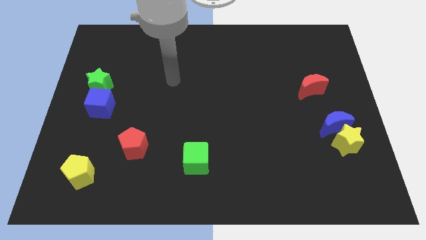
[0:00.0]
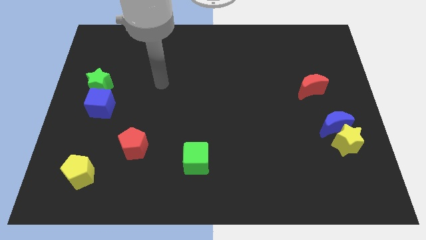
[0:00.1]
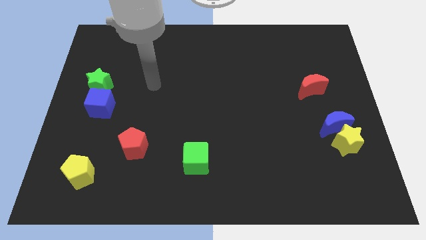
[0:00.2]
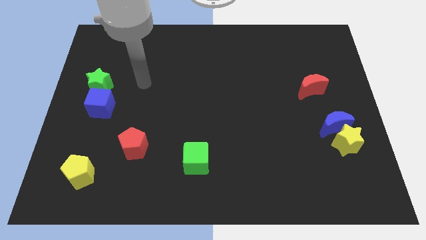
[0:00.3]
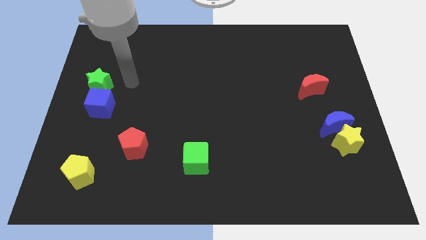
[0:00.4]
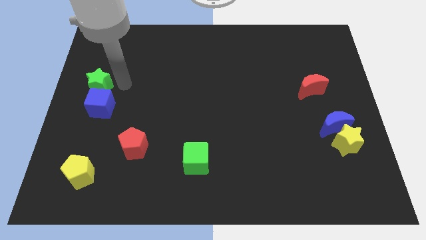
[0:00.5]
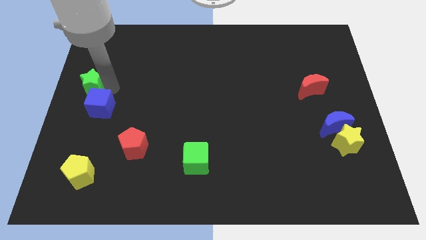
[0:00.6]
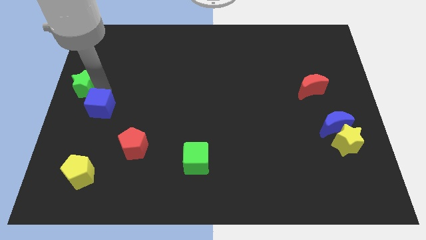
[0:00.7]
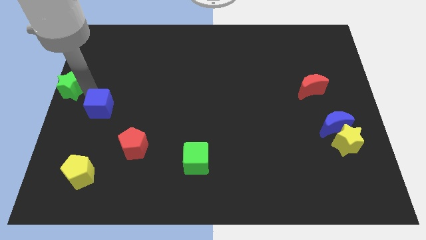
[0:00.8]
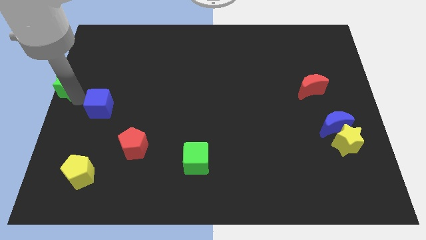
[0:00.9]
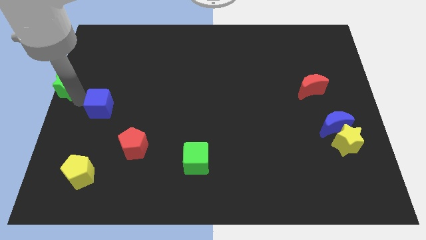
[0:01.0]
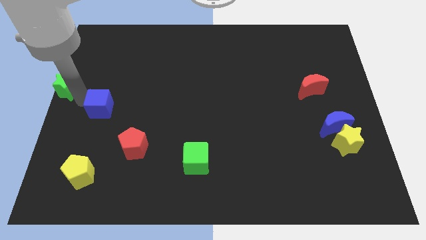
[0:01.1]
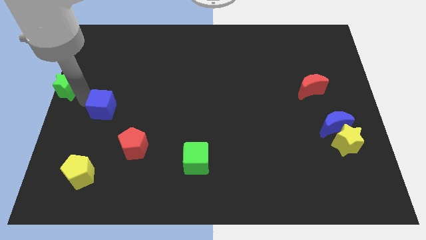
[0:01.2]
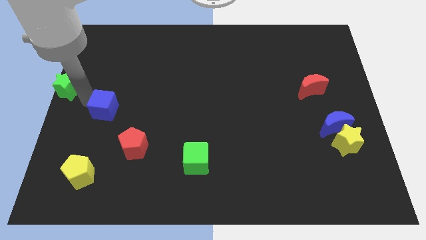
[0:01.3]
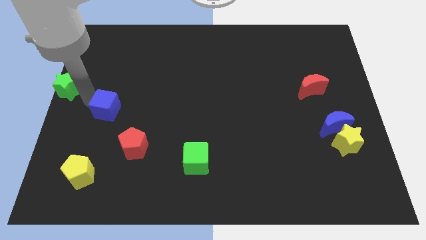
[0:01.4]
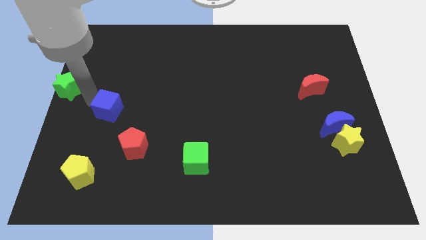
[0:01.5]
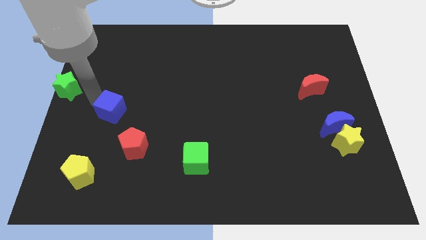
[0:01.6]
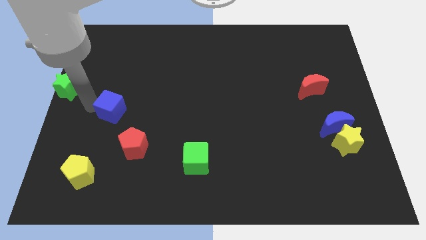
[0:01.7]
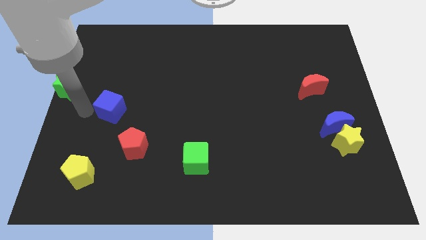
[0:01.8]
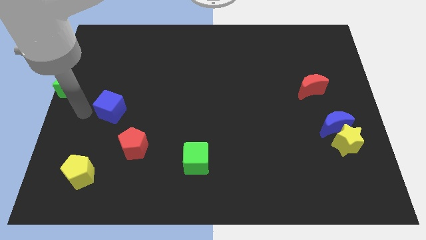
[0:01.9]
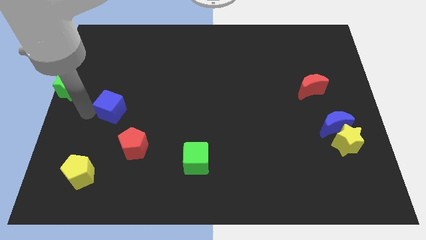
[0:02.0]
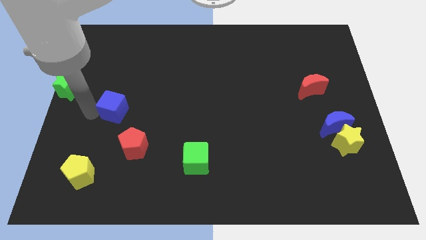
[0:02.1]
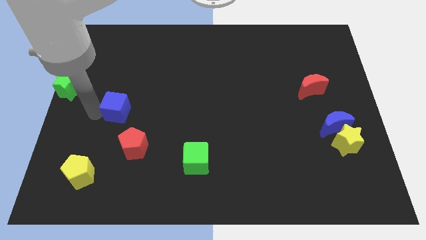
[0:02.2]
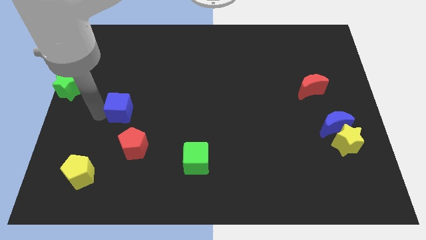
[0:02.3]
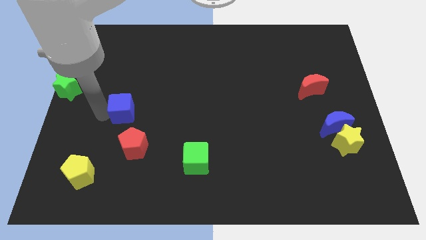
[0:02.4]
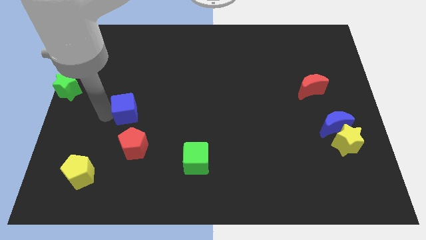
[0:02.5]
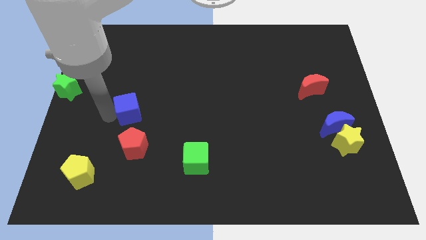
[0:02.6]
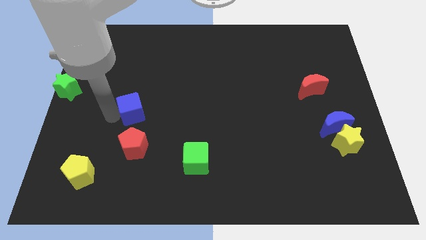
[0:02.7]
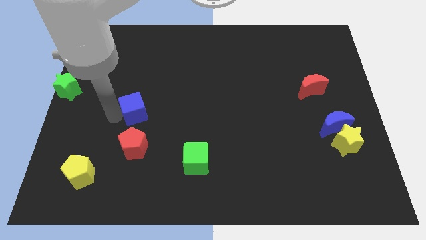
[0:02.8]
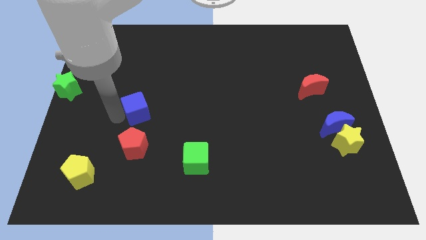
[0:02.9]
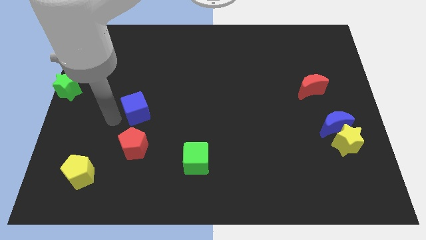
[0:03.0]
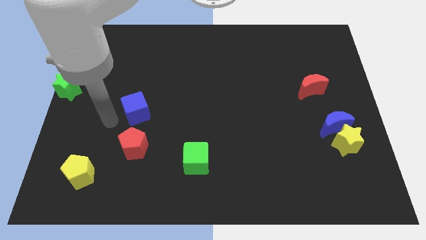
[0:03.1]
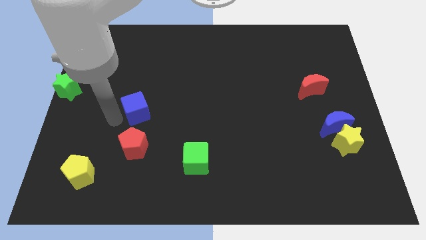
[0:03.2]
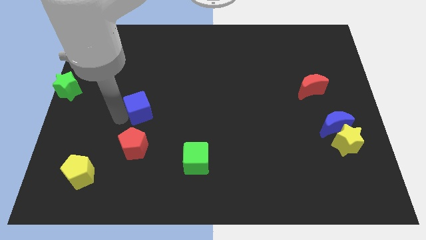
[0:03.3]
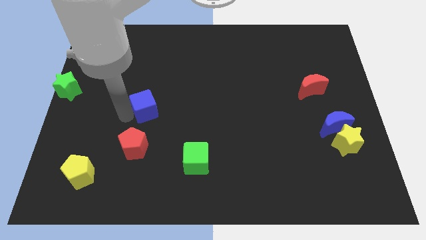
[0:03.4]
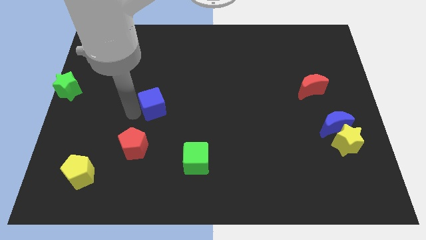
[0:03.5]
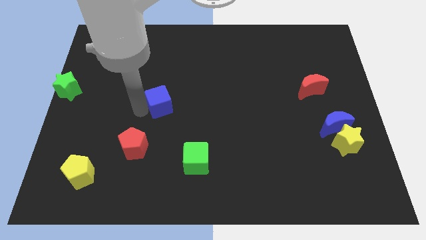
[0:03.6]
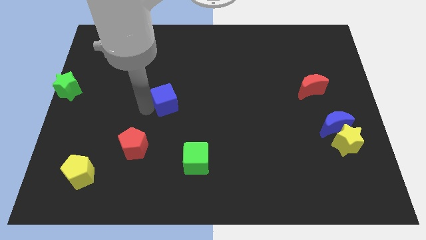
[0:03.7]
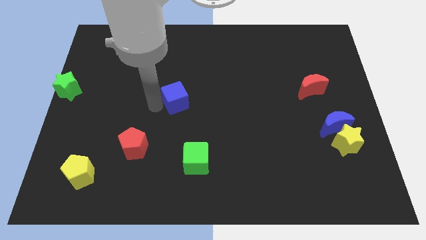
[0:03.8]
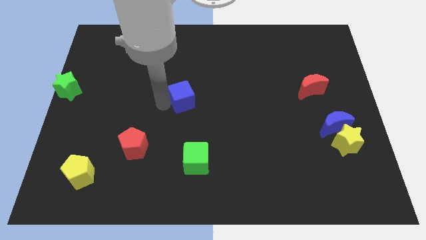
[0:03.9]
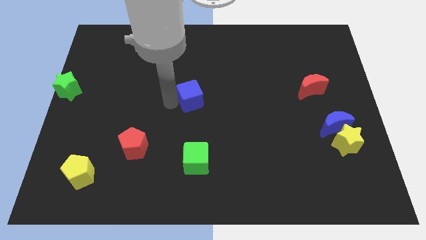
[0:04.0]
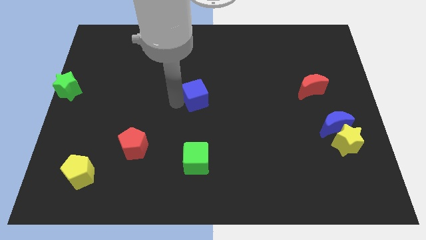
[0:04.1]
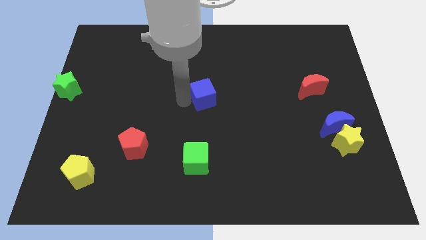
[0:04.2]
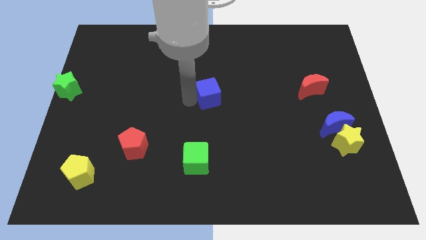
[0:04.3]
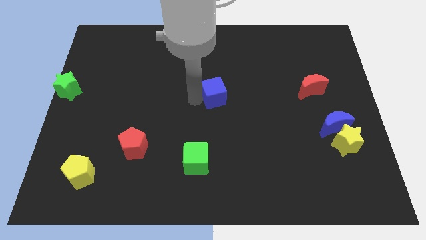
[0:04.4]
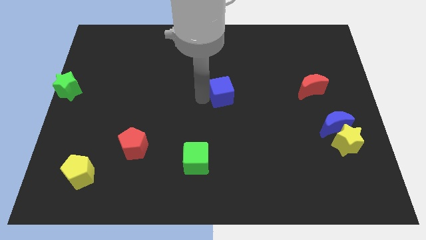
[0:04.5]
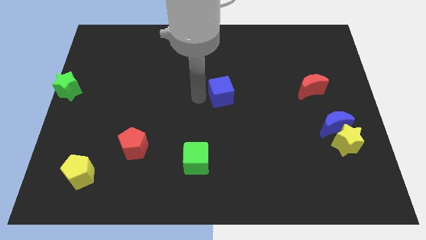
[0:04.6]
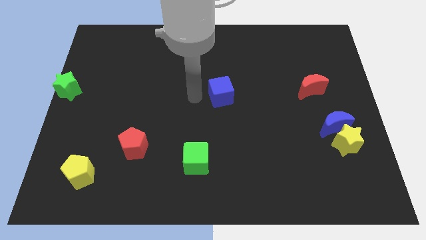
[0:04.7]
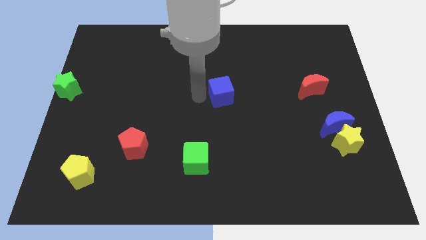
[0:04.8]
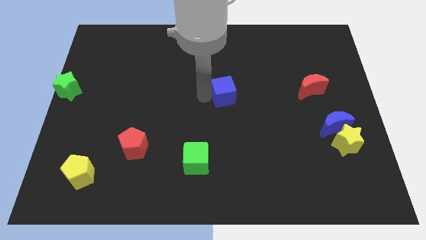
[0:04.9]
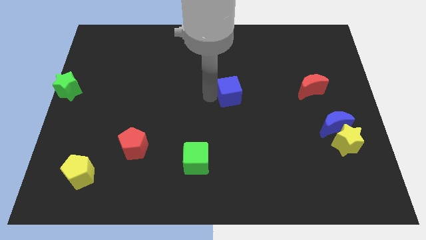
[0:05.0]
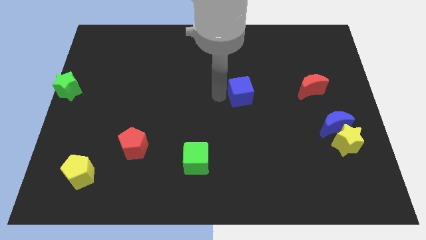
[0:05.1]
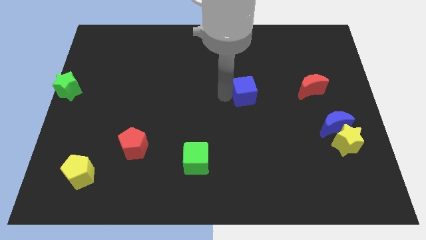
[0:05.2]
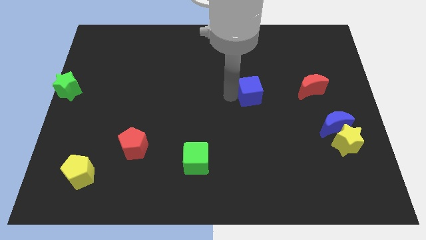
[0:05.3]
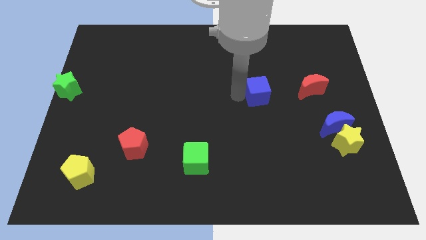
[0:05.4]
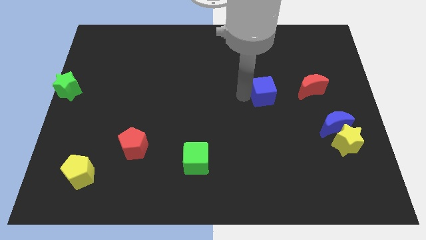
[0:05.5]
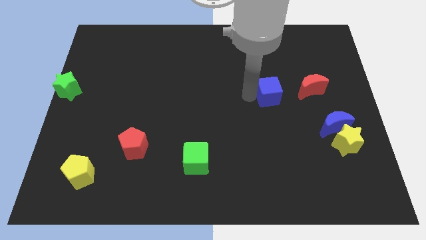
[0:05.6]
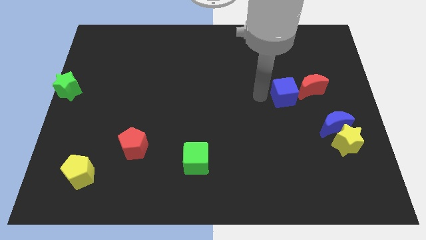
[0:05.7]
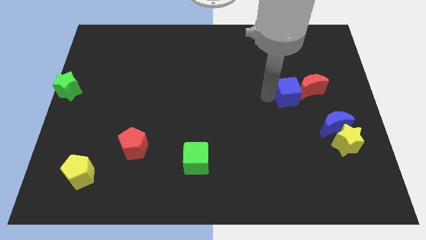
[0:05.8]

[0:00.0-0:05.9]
push the blue cube next to the red moon

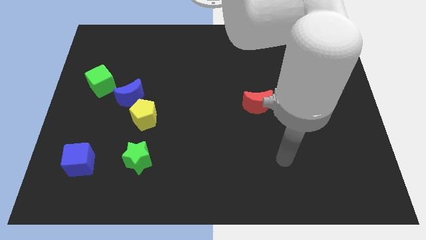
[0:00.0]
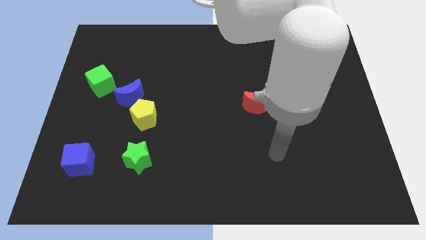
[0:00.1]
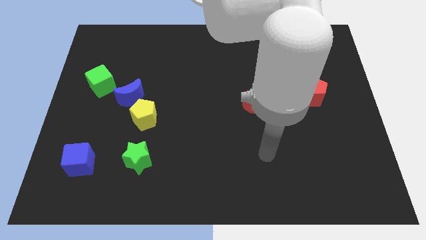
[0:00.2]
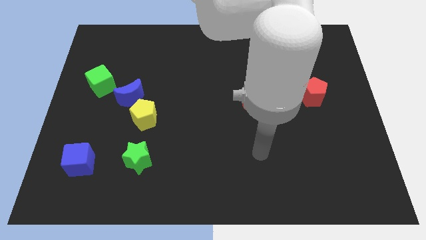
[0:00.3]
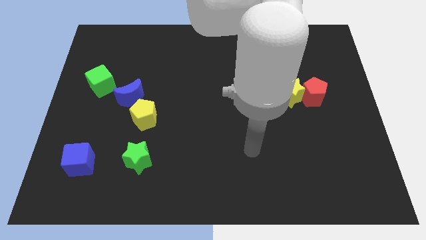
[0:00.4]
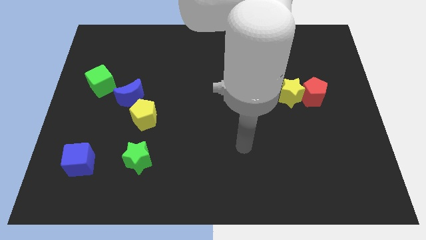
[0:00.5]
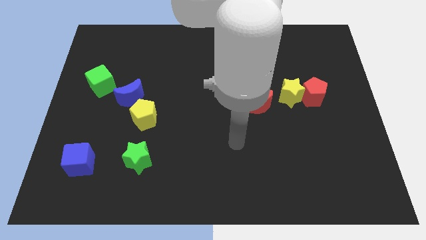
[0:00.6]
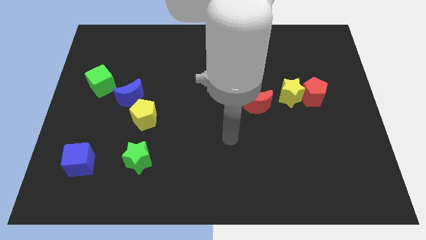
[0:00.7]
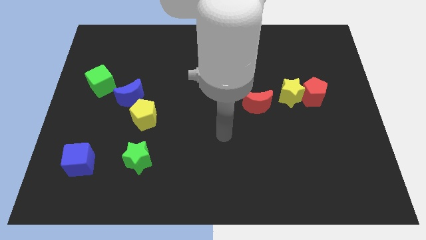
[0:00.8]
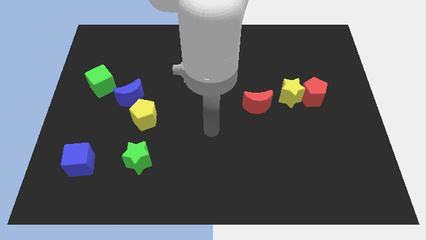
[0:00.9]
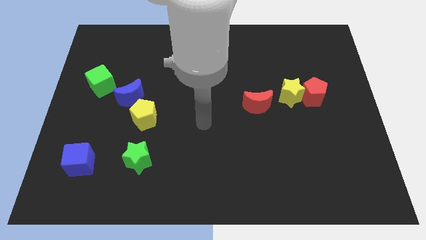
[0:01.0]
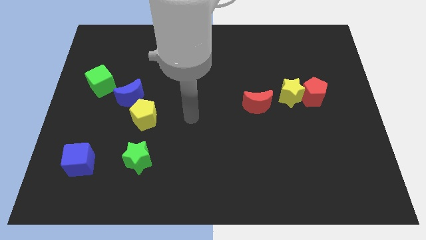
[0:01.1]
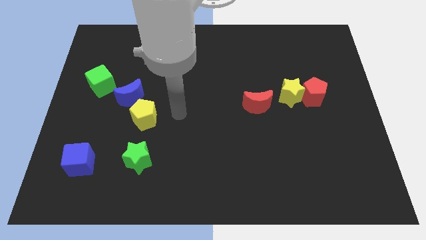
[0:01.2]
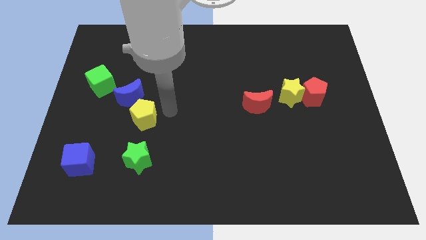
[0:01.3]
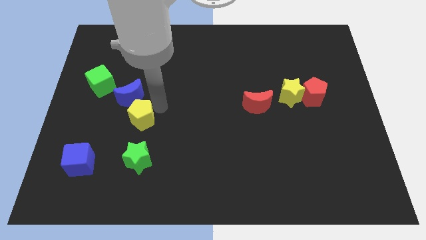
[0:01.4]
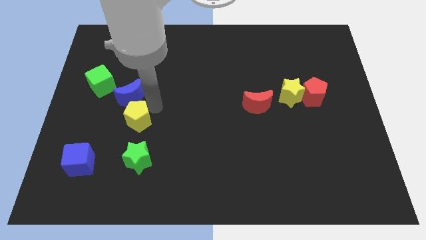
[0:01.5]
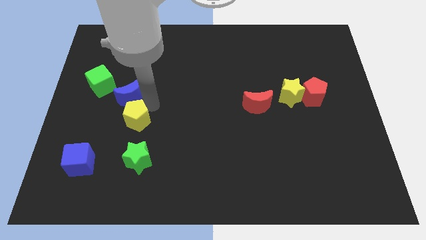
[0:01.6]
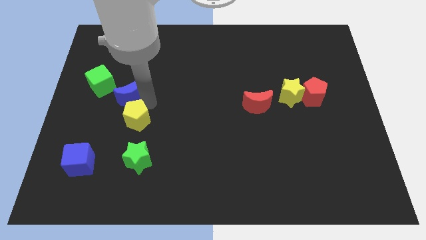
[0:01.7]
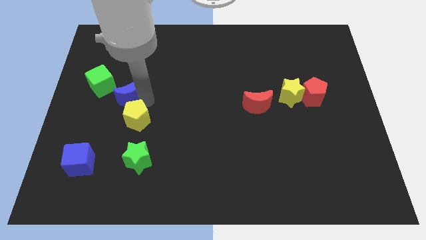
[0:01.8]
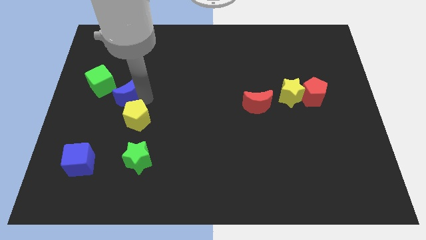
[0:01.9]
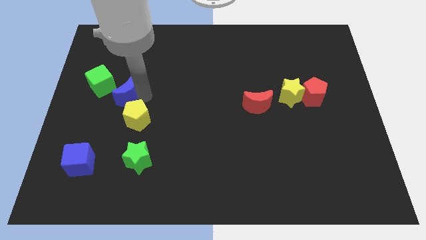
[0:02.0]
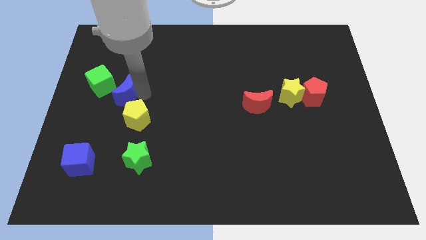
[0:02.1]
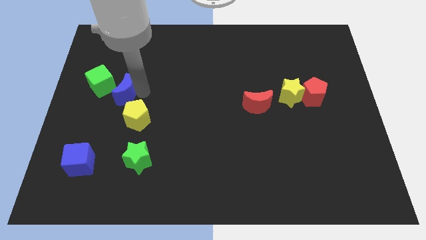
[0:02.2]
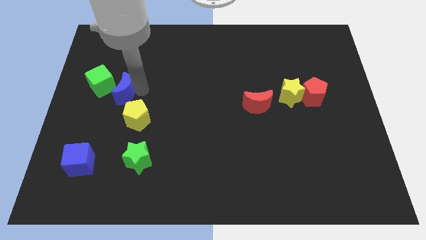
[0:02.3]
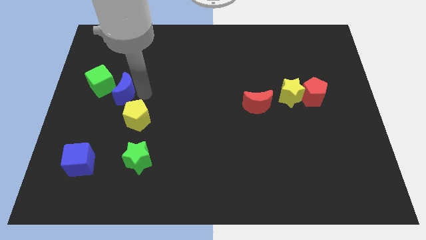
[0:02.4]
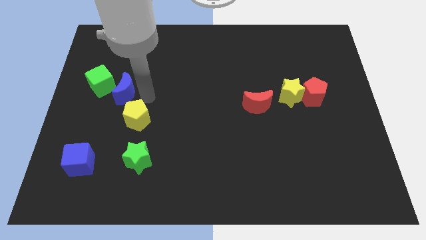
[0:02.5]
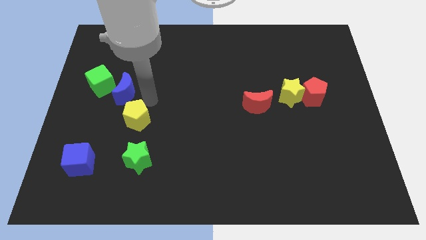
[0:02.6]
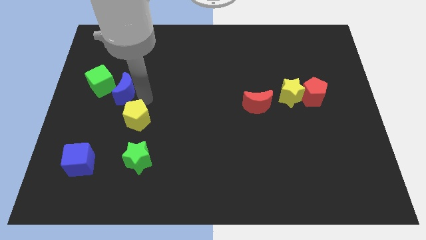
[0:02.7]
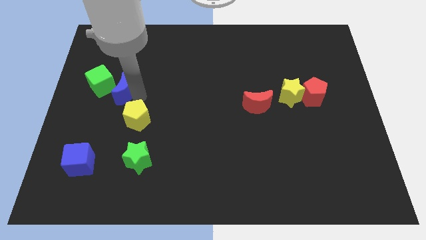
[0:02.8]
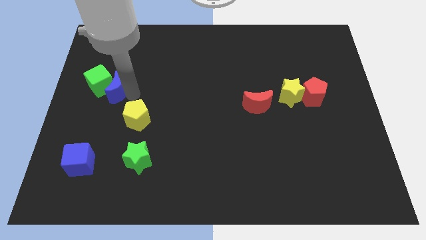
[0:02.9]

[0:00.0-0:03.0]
push the blue moon next to the green cube
